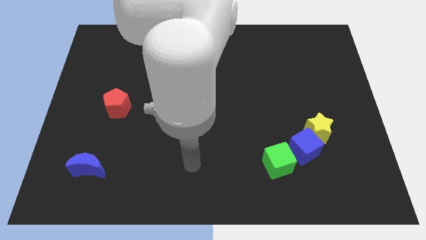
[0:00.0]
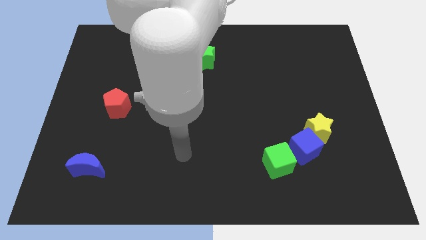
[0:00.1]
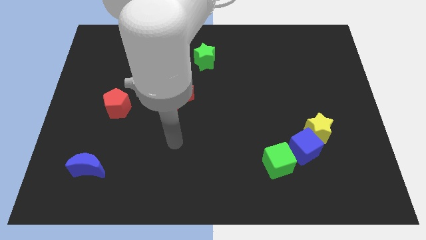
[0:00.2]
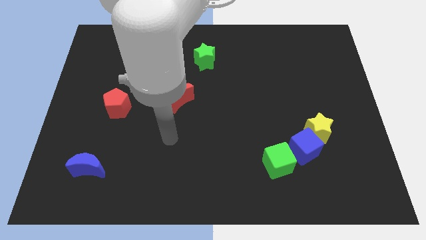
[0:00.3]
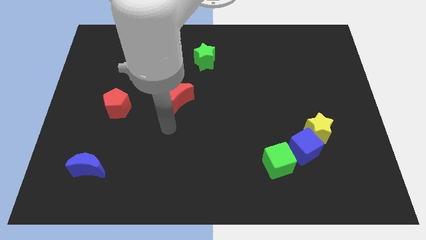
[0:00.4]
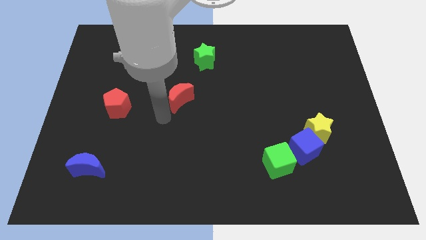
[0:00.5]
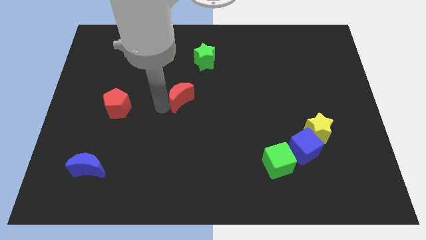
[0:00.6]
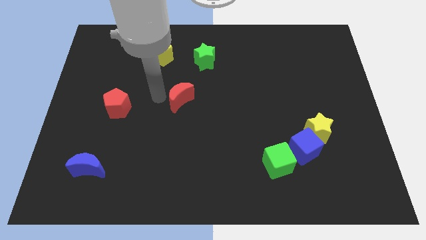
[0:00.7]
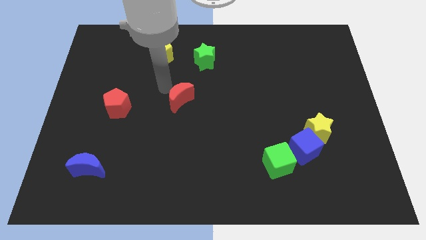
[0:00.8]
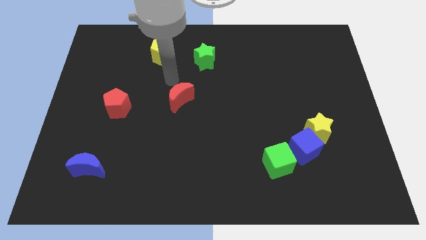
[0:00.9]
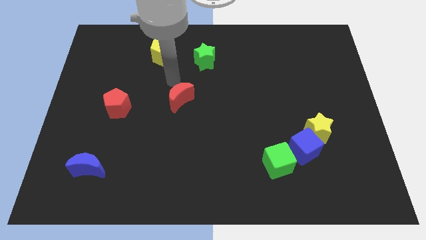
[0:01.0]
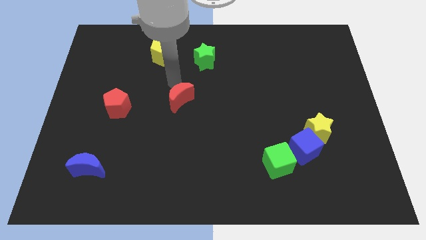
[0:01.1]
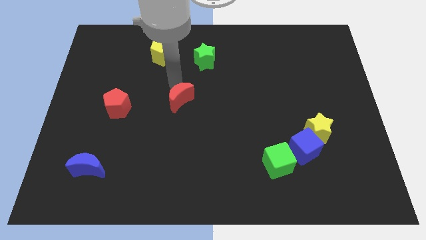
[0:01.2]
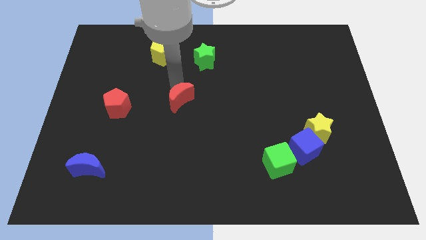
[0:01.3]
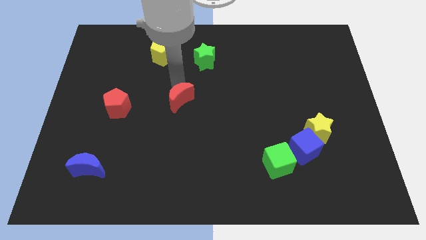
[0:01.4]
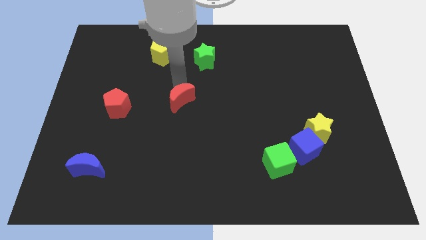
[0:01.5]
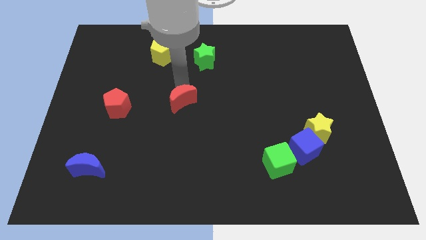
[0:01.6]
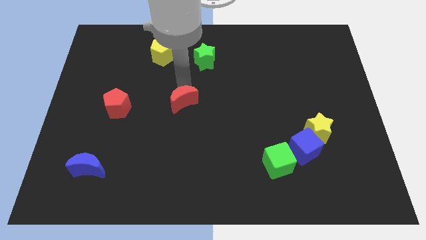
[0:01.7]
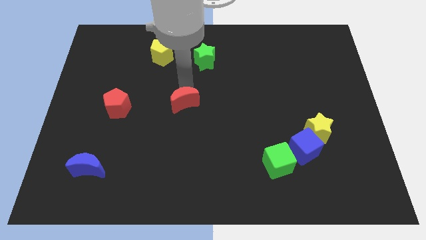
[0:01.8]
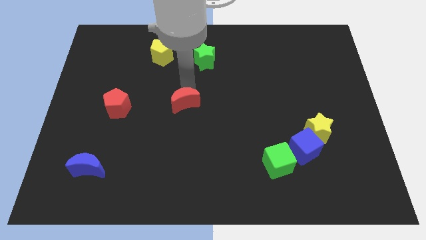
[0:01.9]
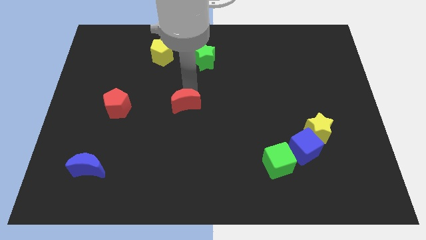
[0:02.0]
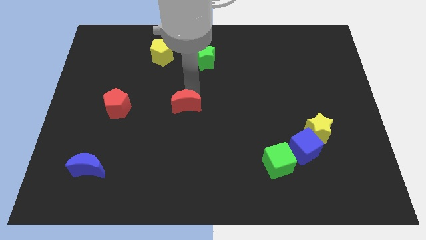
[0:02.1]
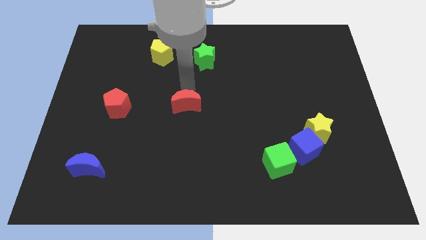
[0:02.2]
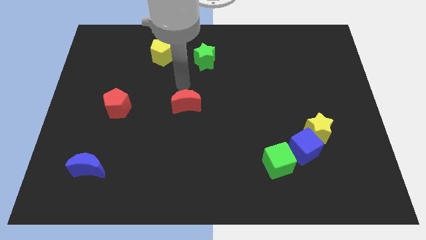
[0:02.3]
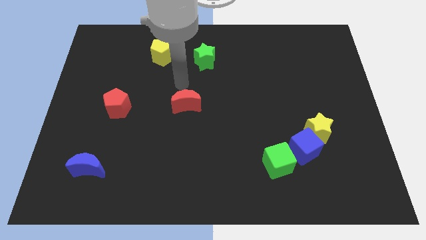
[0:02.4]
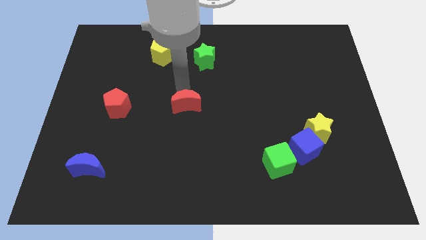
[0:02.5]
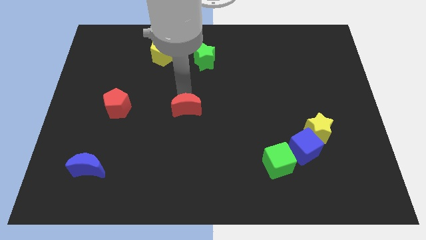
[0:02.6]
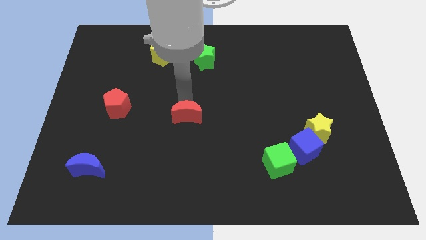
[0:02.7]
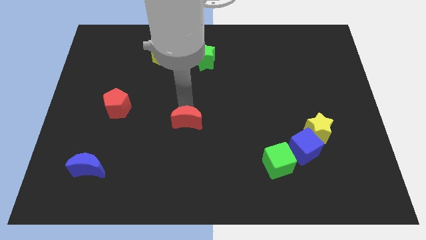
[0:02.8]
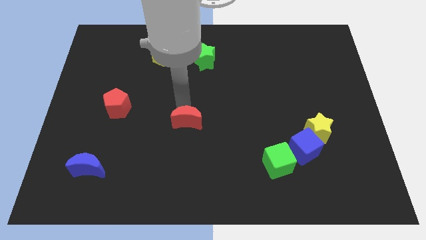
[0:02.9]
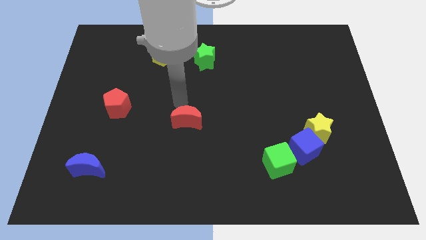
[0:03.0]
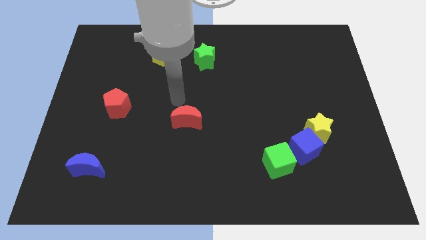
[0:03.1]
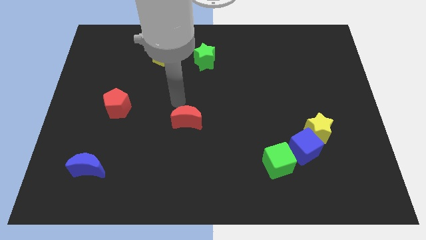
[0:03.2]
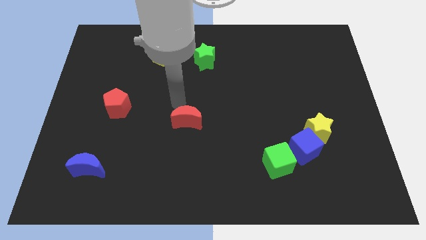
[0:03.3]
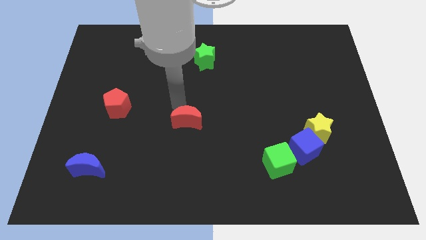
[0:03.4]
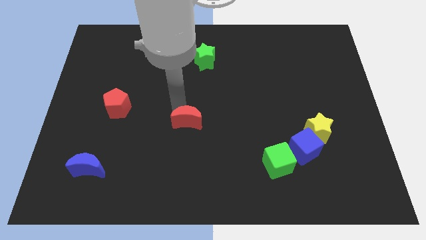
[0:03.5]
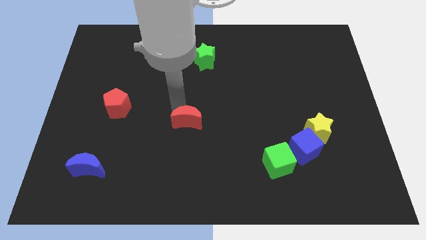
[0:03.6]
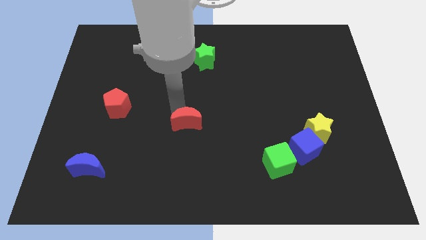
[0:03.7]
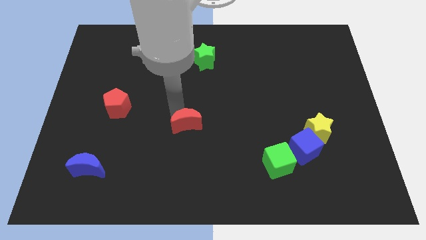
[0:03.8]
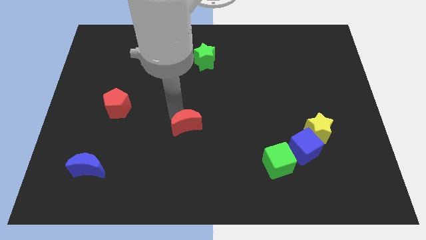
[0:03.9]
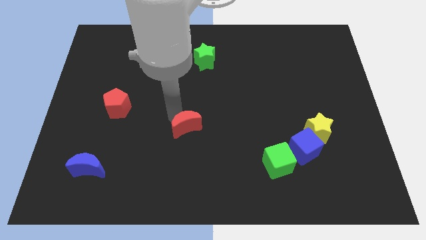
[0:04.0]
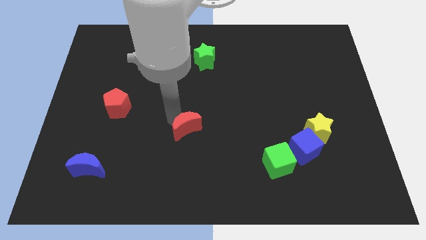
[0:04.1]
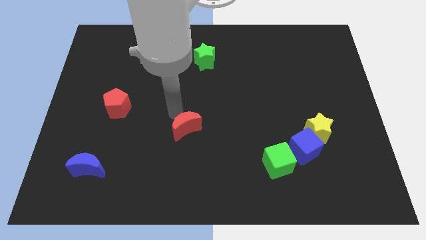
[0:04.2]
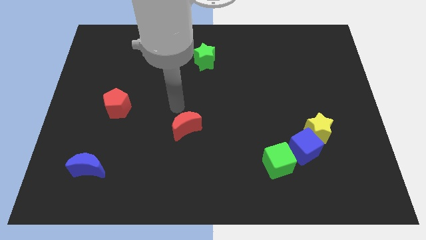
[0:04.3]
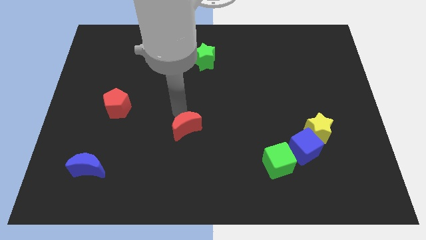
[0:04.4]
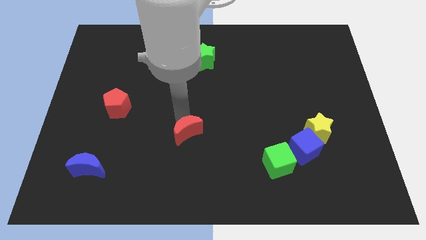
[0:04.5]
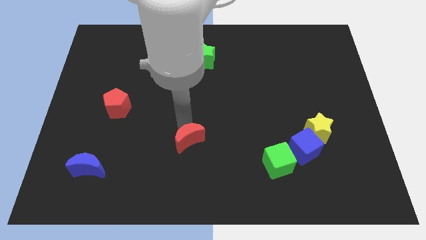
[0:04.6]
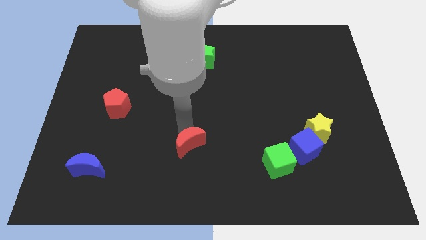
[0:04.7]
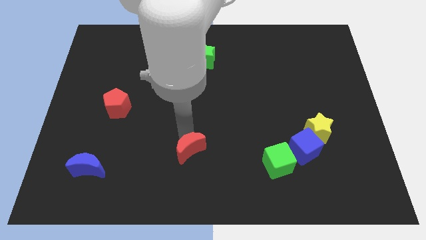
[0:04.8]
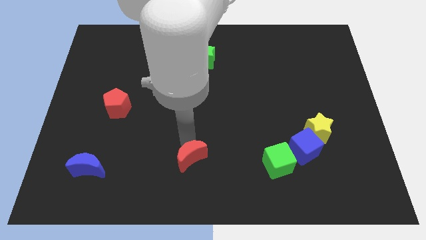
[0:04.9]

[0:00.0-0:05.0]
slide the red moon to the bottom

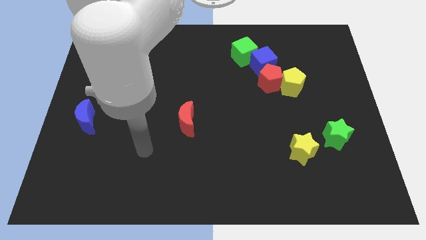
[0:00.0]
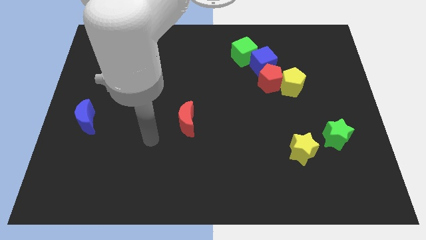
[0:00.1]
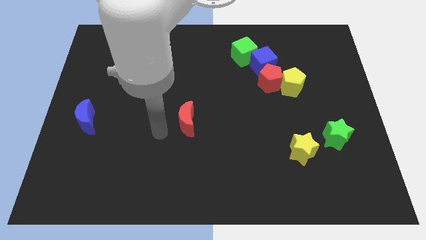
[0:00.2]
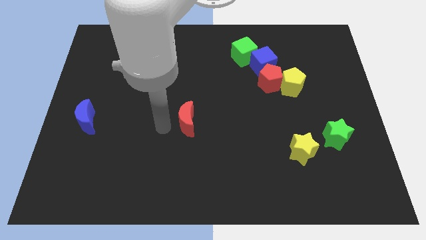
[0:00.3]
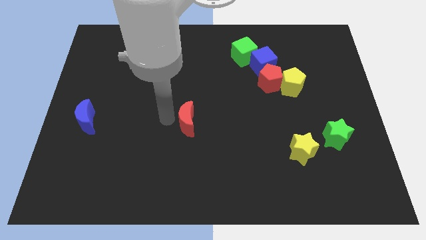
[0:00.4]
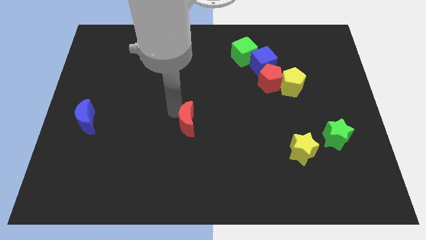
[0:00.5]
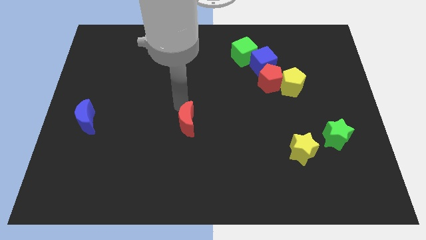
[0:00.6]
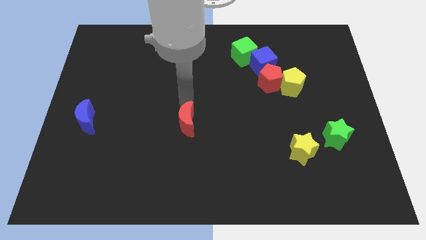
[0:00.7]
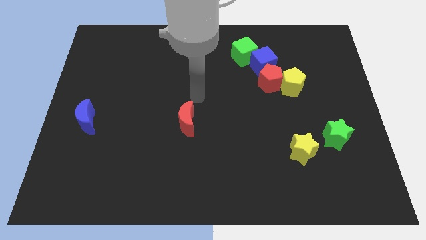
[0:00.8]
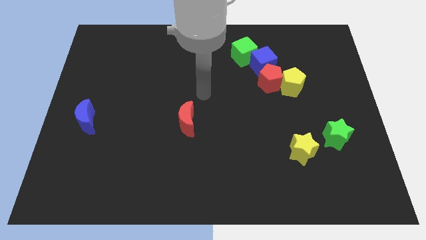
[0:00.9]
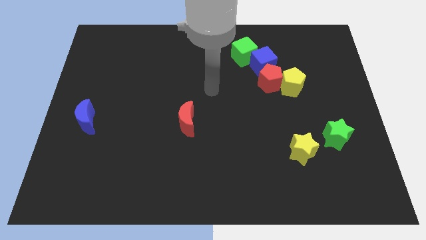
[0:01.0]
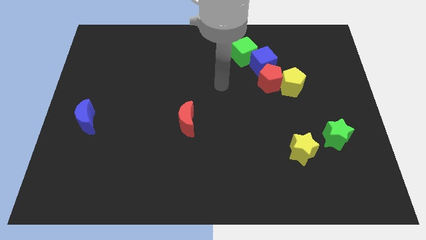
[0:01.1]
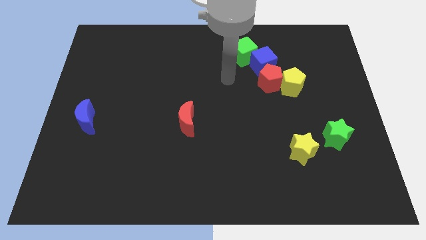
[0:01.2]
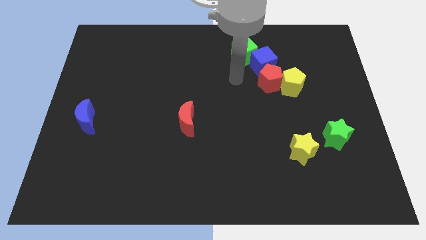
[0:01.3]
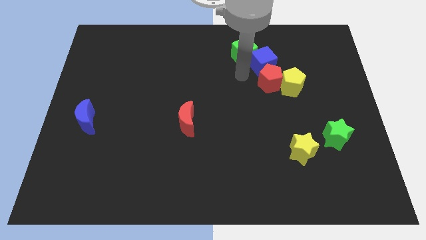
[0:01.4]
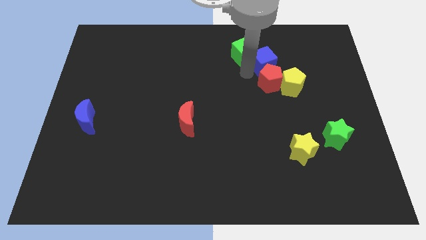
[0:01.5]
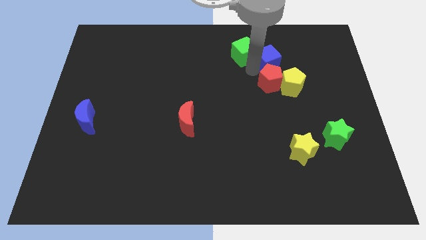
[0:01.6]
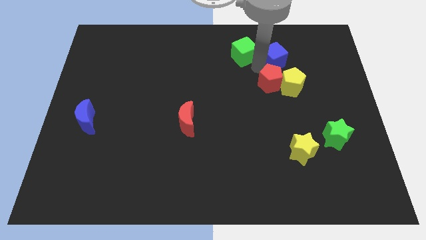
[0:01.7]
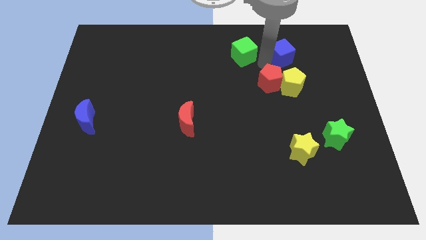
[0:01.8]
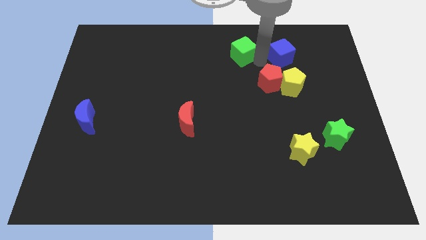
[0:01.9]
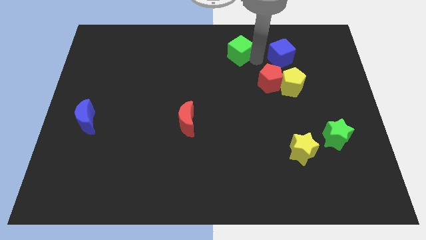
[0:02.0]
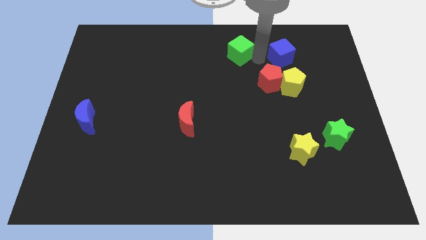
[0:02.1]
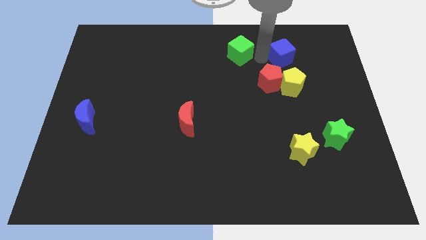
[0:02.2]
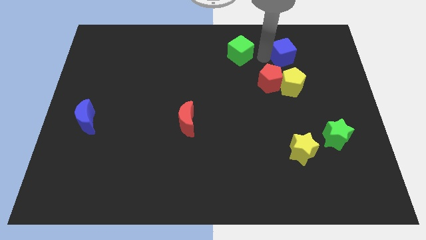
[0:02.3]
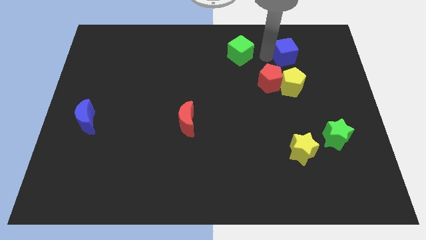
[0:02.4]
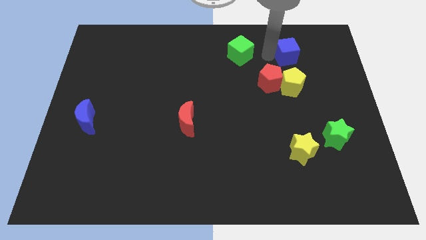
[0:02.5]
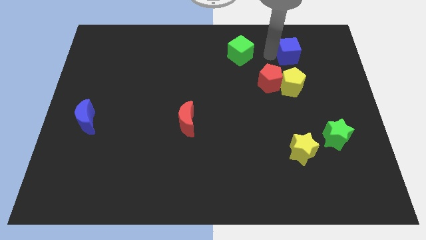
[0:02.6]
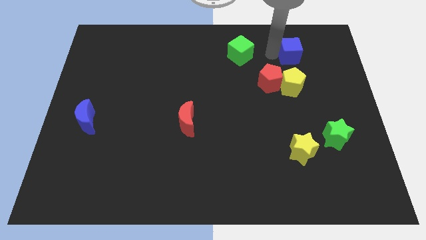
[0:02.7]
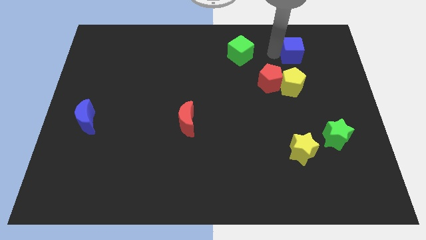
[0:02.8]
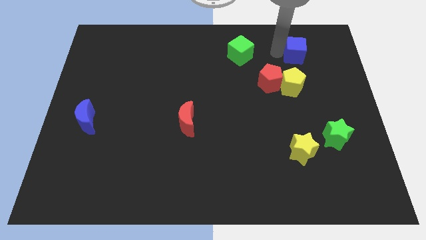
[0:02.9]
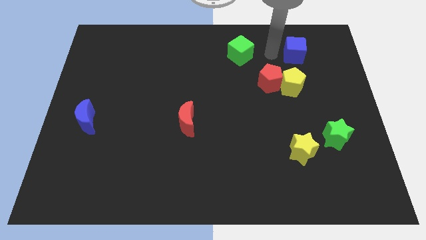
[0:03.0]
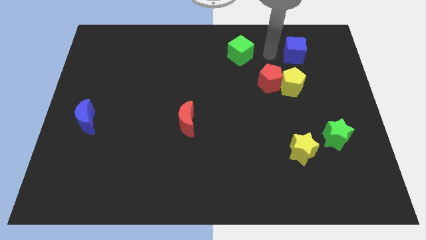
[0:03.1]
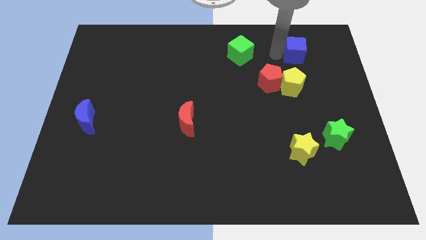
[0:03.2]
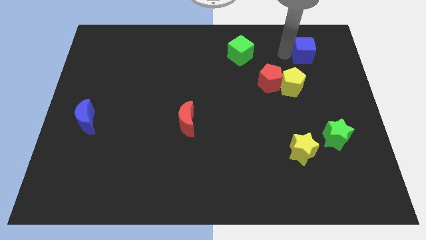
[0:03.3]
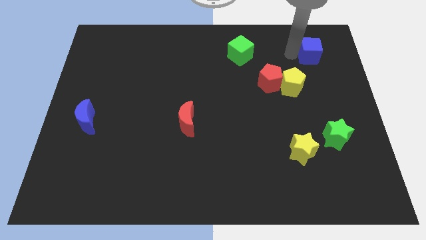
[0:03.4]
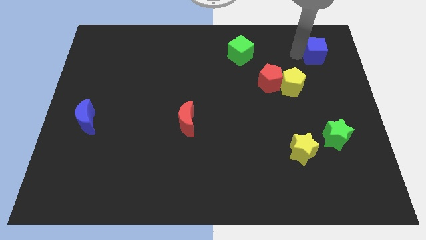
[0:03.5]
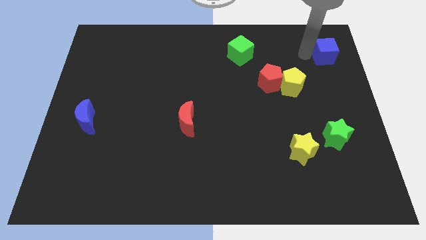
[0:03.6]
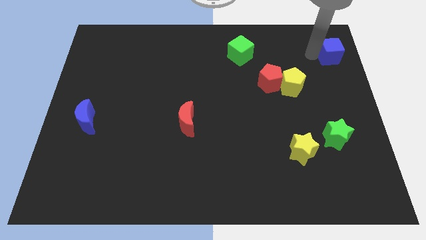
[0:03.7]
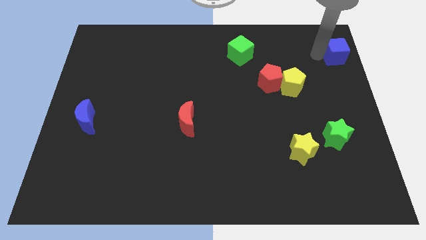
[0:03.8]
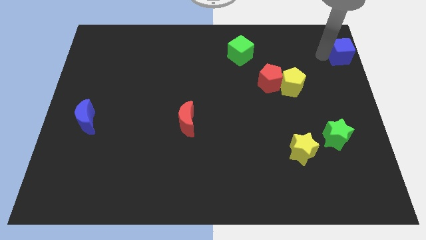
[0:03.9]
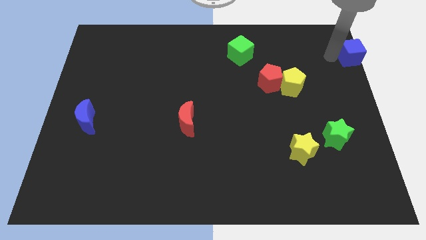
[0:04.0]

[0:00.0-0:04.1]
put the blue cube to the top right of the board
